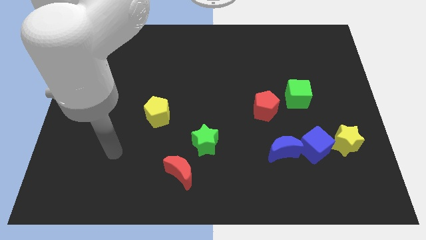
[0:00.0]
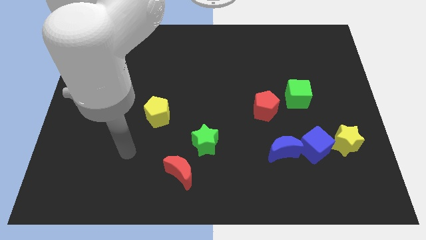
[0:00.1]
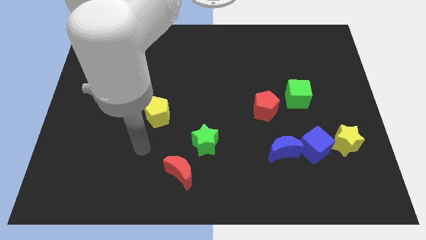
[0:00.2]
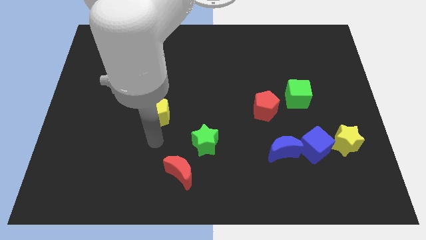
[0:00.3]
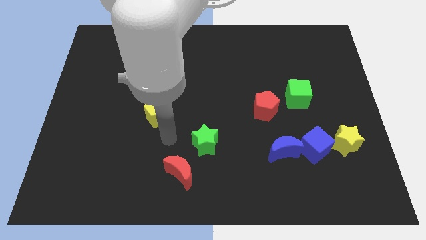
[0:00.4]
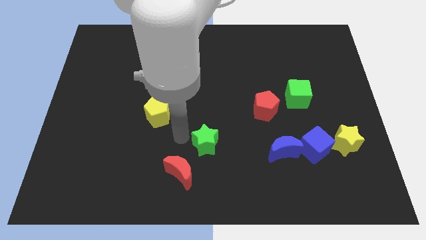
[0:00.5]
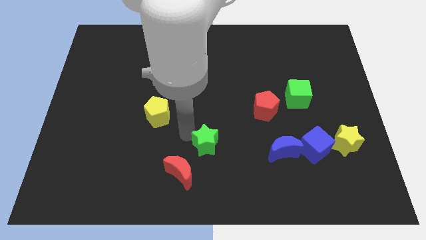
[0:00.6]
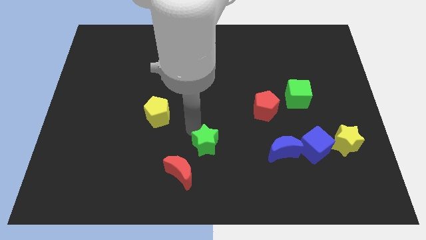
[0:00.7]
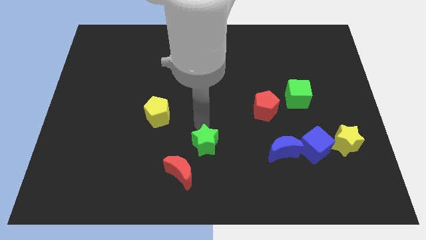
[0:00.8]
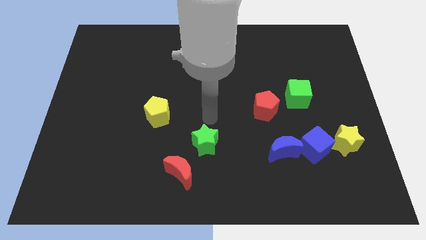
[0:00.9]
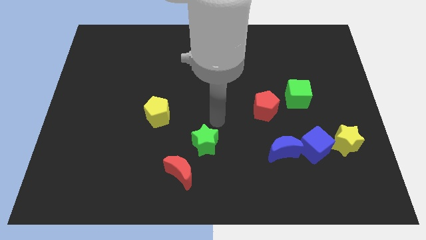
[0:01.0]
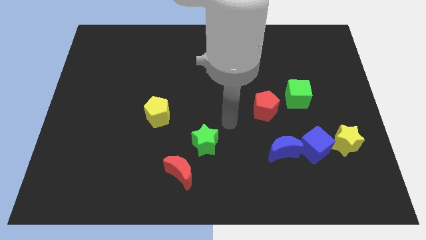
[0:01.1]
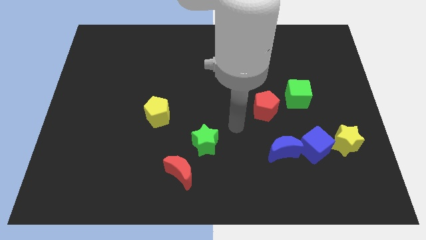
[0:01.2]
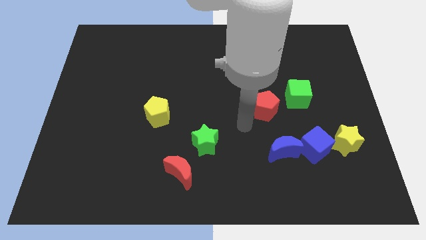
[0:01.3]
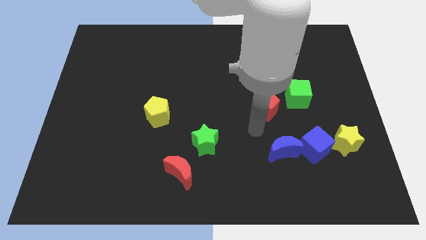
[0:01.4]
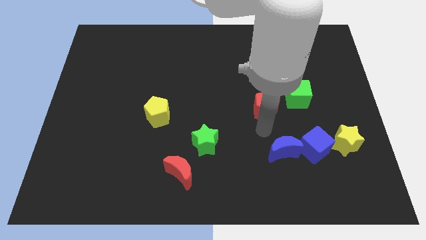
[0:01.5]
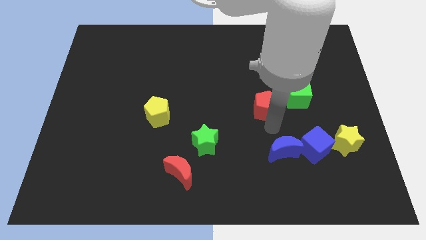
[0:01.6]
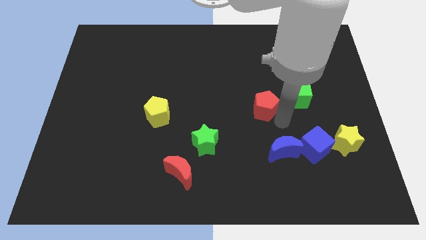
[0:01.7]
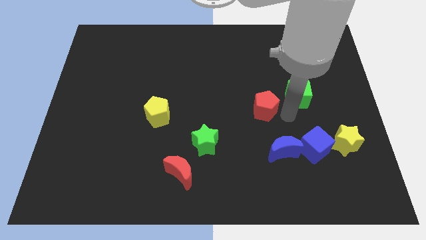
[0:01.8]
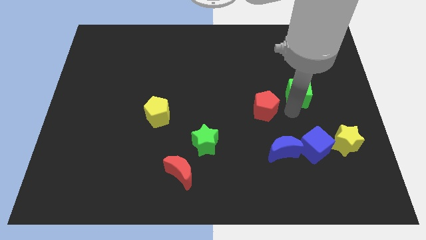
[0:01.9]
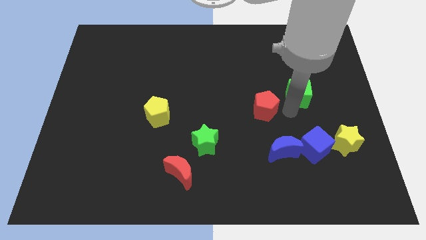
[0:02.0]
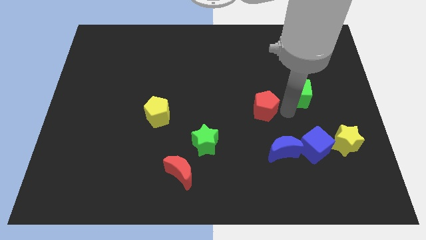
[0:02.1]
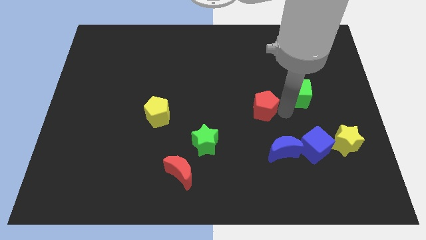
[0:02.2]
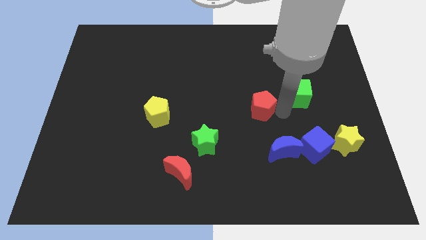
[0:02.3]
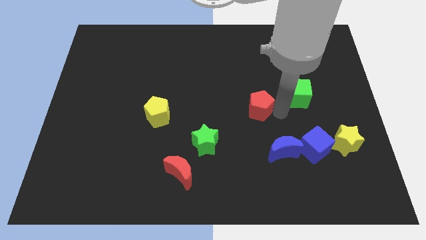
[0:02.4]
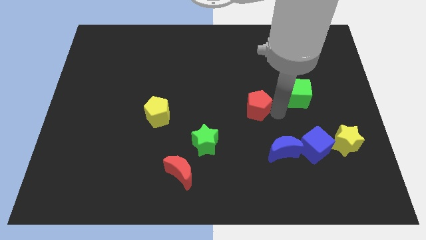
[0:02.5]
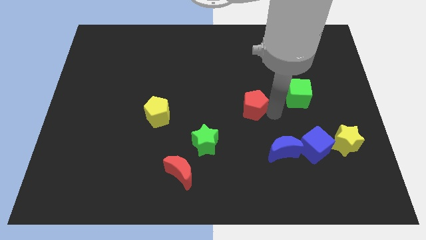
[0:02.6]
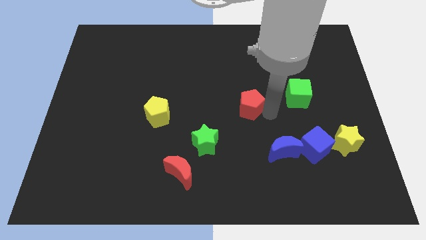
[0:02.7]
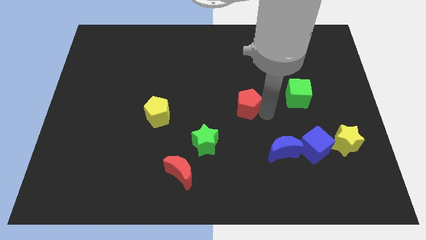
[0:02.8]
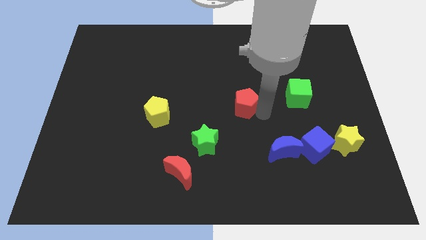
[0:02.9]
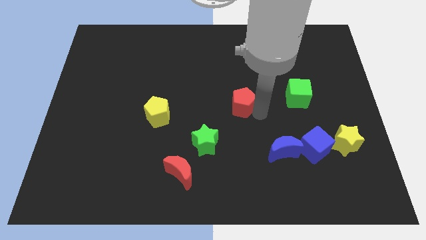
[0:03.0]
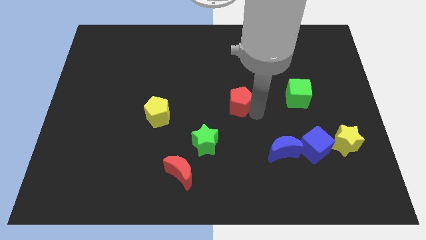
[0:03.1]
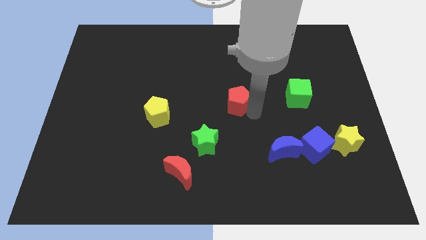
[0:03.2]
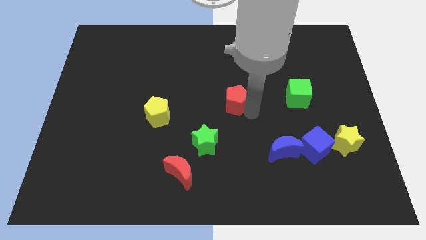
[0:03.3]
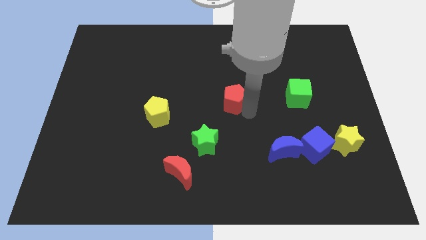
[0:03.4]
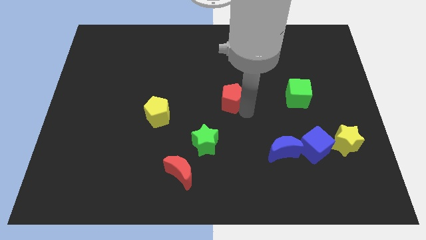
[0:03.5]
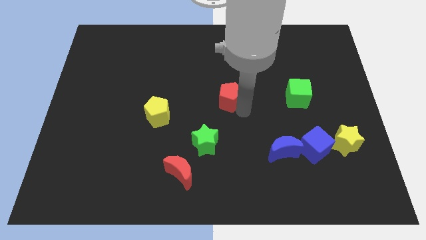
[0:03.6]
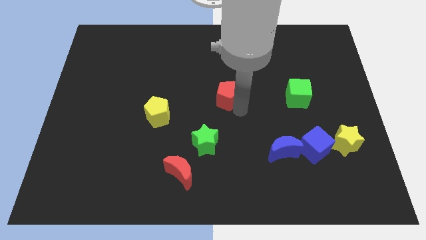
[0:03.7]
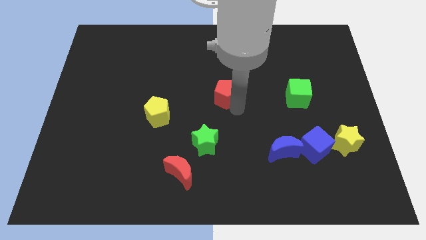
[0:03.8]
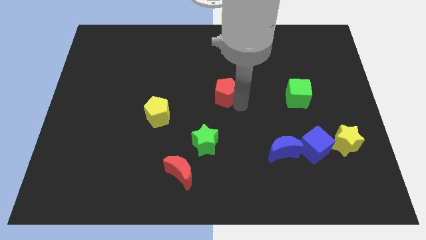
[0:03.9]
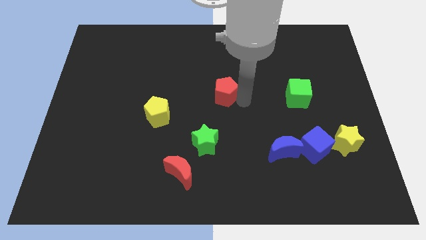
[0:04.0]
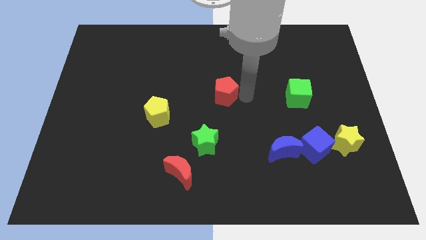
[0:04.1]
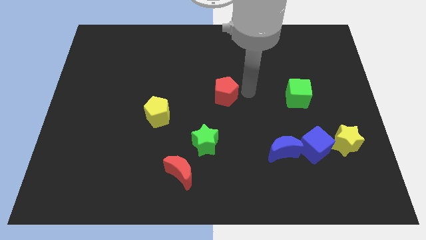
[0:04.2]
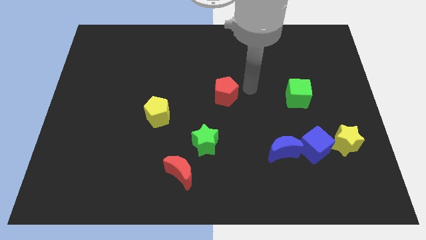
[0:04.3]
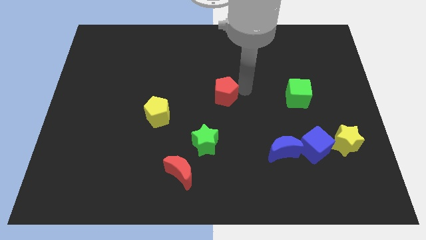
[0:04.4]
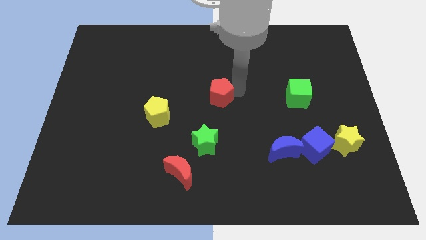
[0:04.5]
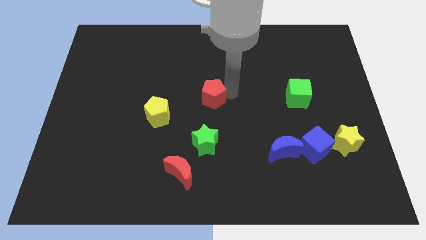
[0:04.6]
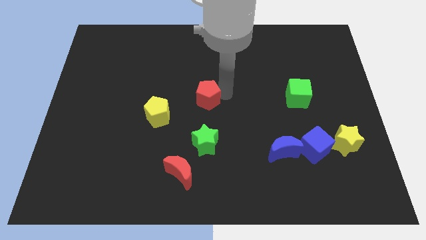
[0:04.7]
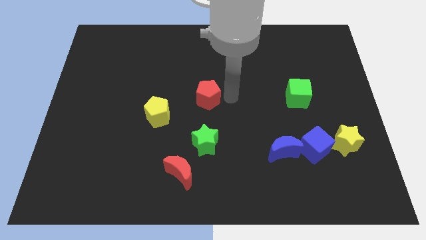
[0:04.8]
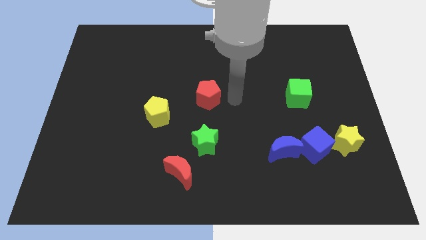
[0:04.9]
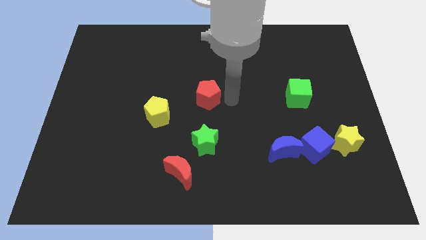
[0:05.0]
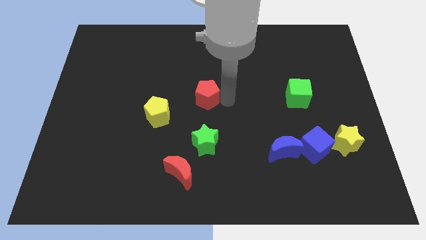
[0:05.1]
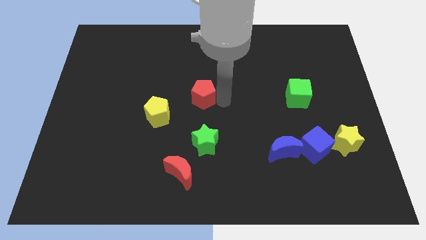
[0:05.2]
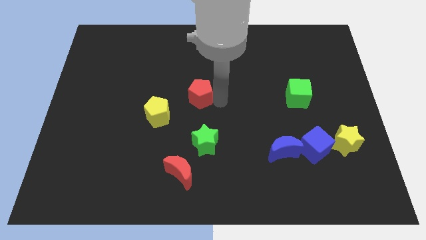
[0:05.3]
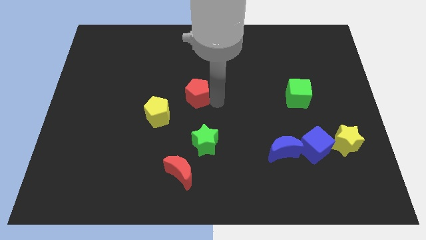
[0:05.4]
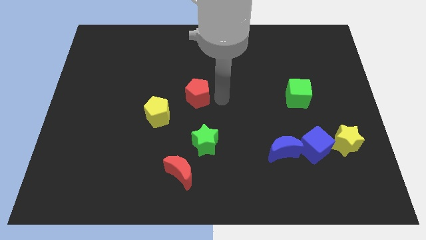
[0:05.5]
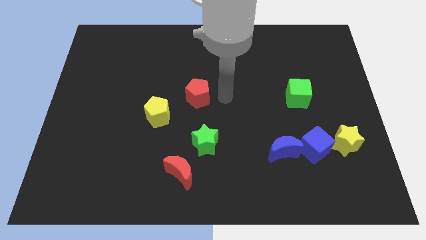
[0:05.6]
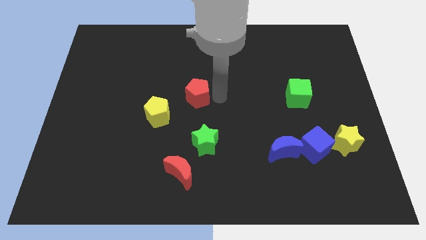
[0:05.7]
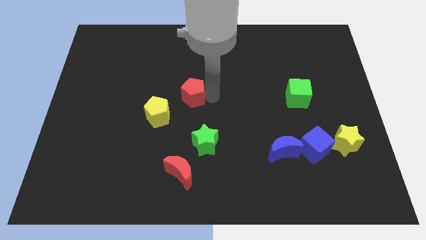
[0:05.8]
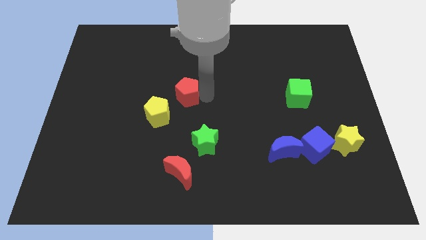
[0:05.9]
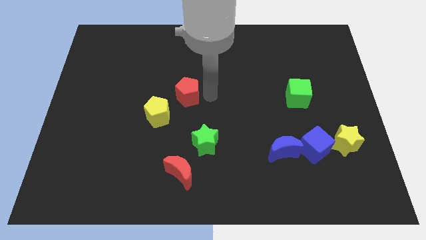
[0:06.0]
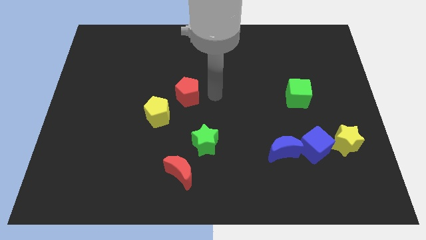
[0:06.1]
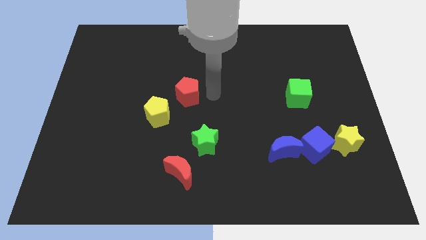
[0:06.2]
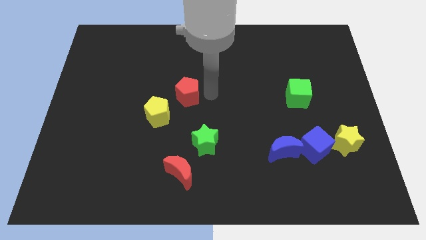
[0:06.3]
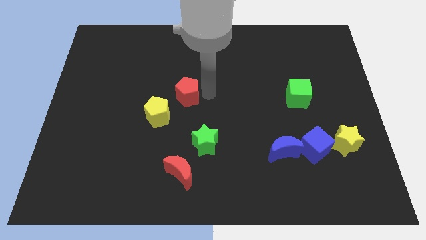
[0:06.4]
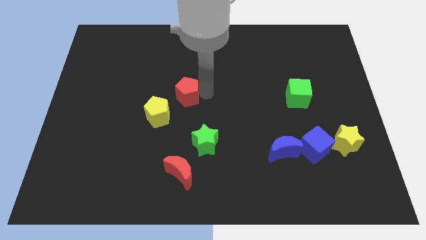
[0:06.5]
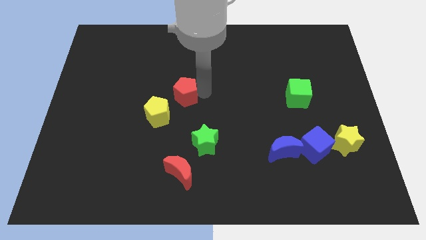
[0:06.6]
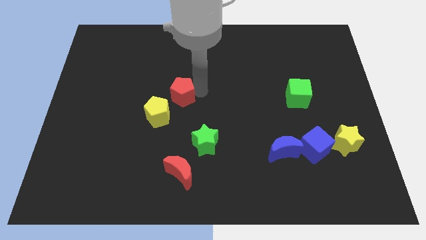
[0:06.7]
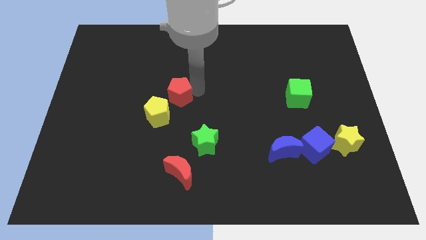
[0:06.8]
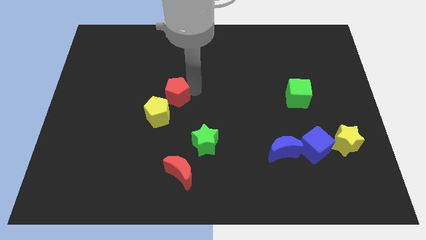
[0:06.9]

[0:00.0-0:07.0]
move the red pentagon to the left

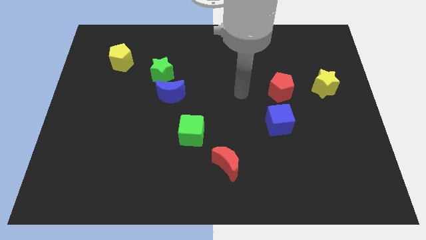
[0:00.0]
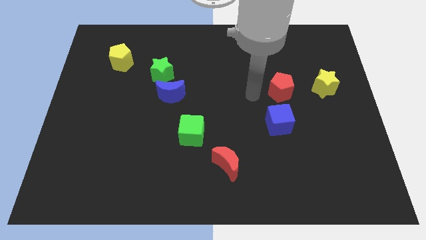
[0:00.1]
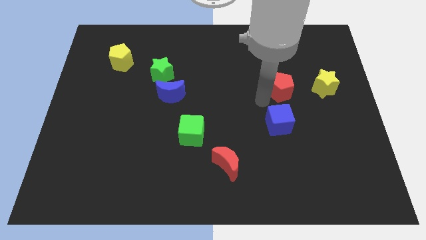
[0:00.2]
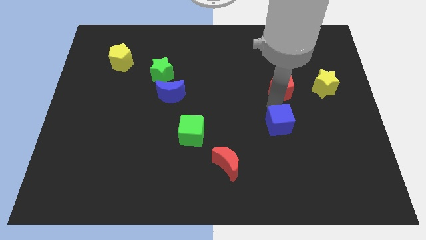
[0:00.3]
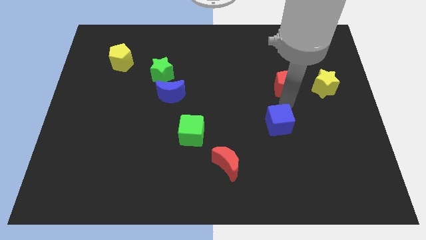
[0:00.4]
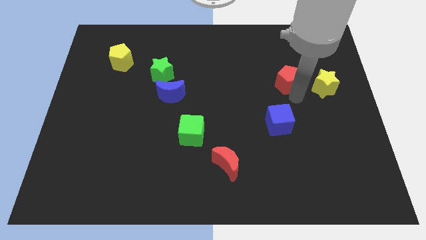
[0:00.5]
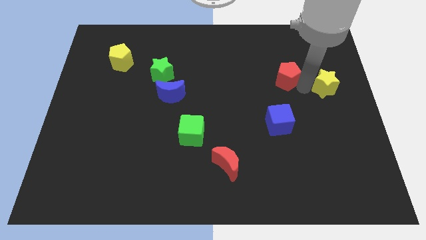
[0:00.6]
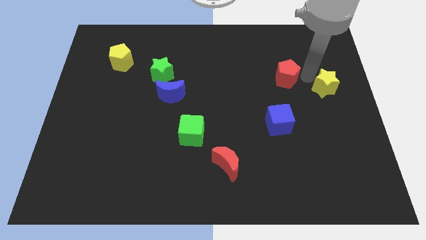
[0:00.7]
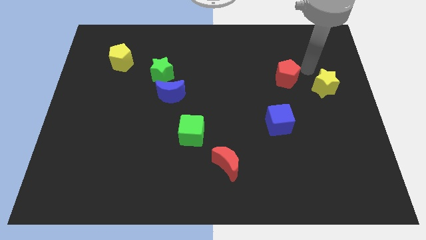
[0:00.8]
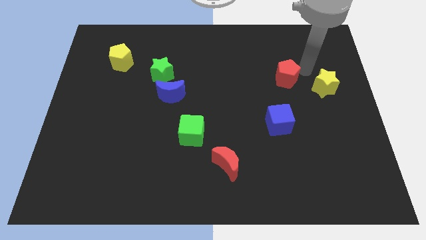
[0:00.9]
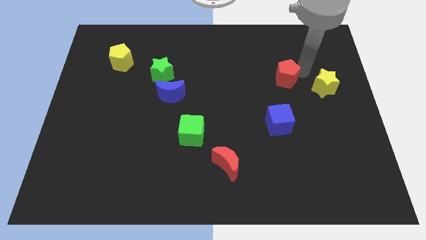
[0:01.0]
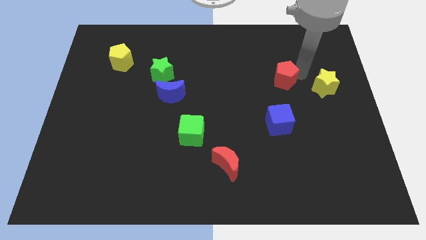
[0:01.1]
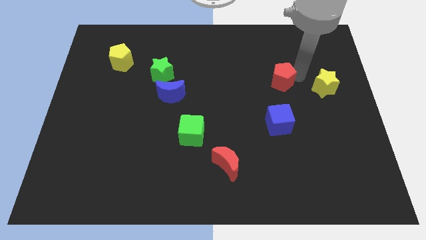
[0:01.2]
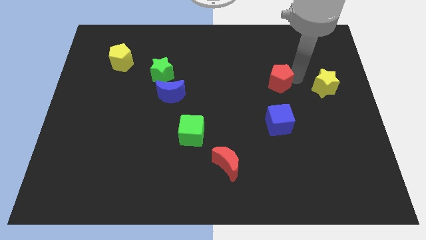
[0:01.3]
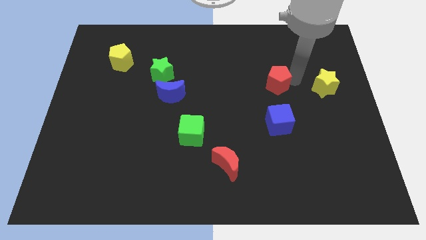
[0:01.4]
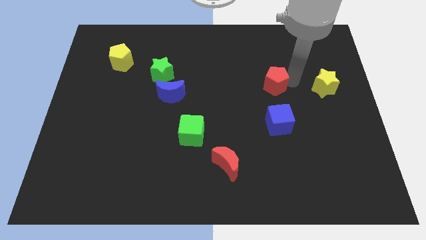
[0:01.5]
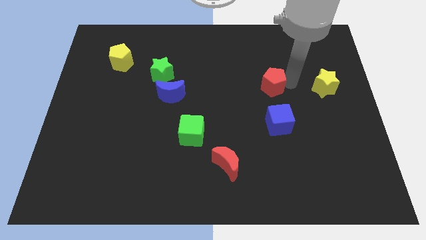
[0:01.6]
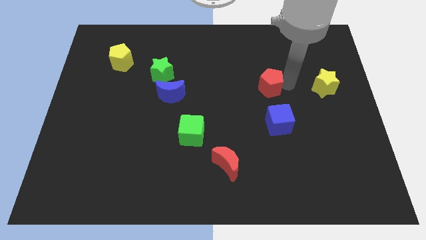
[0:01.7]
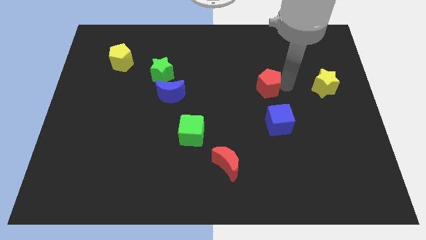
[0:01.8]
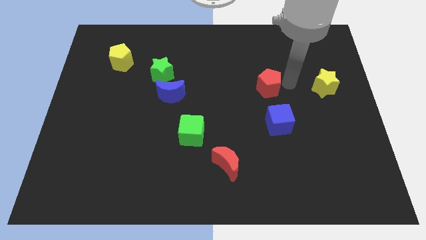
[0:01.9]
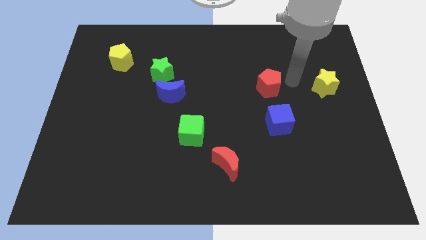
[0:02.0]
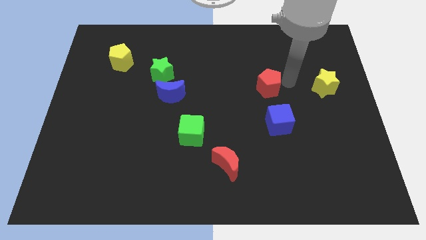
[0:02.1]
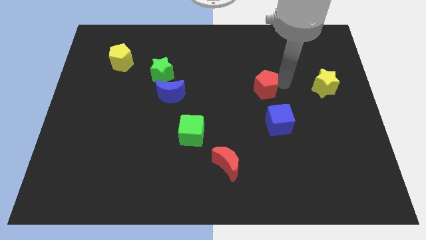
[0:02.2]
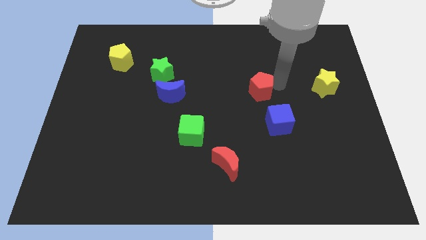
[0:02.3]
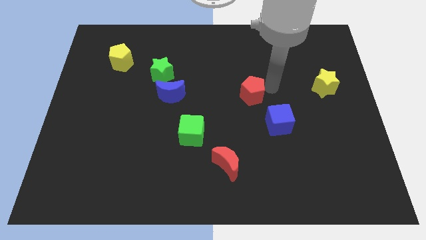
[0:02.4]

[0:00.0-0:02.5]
slightly move the red pentagon left
